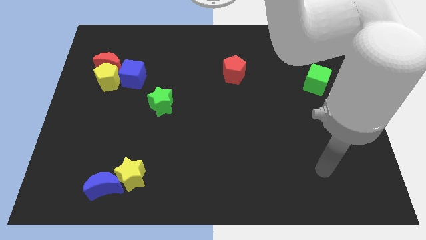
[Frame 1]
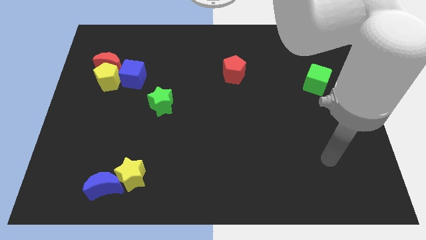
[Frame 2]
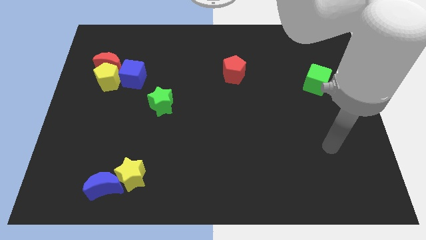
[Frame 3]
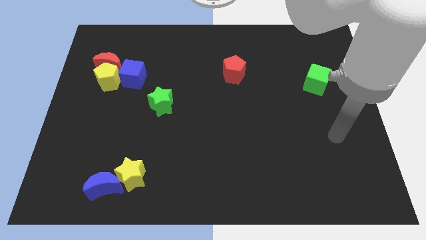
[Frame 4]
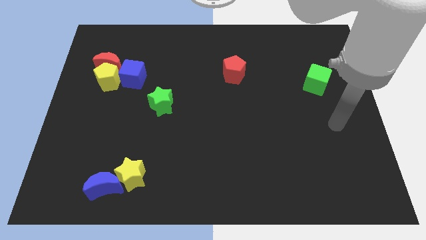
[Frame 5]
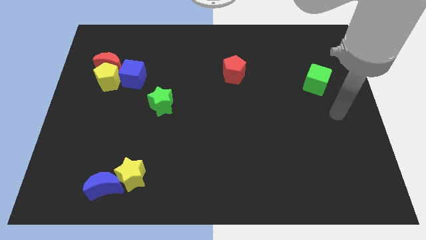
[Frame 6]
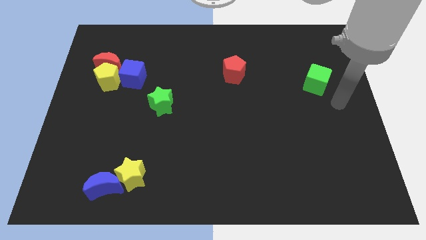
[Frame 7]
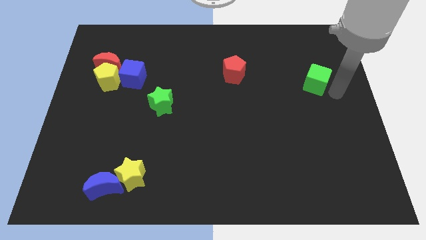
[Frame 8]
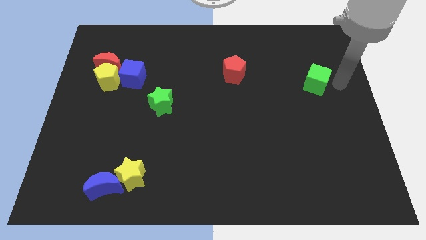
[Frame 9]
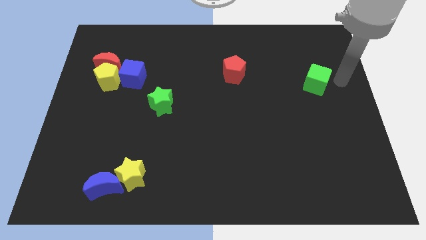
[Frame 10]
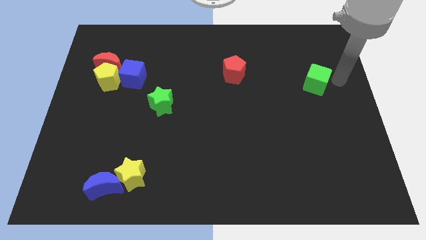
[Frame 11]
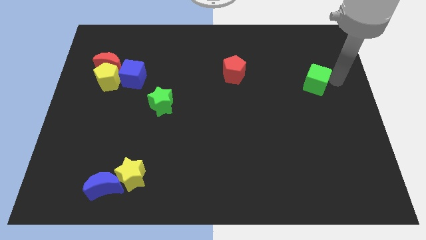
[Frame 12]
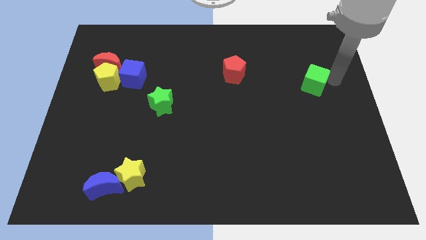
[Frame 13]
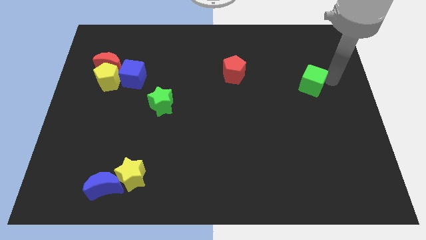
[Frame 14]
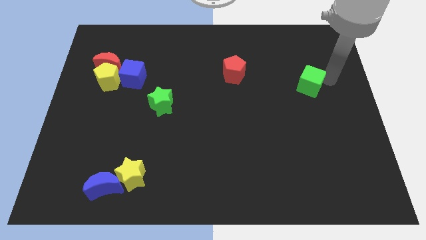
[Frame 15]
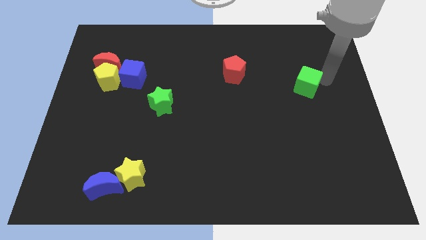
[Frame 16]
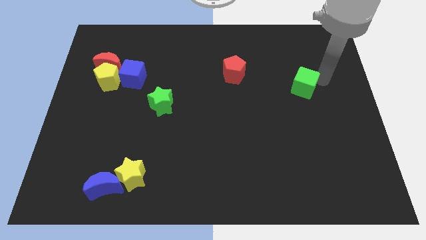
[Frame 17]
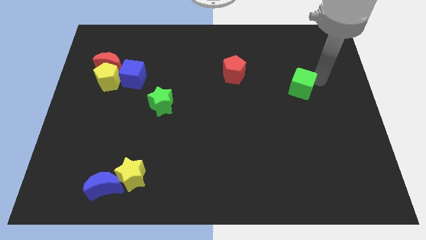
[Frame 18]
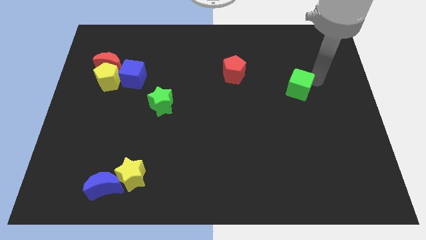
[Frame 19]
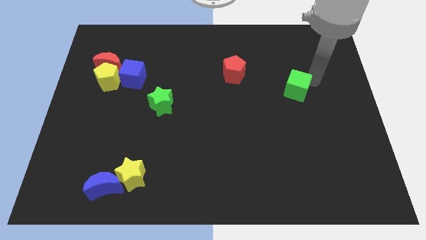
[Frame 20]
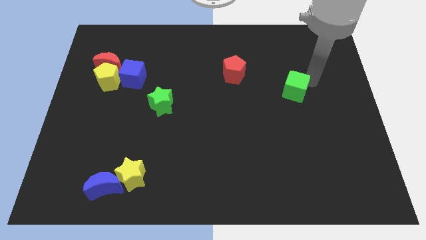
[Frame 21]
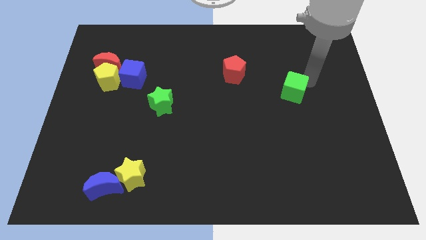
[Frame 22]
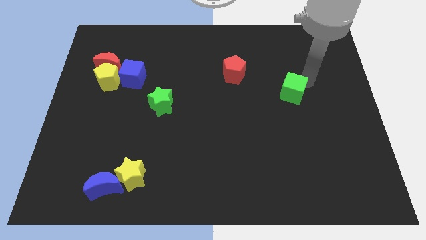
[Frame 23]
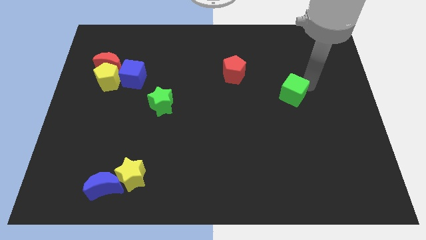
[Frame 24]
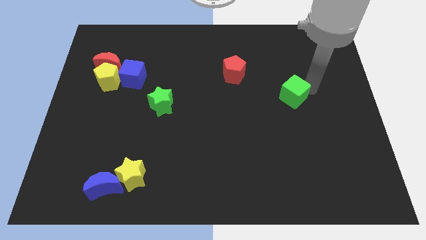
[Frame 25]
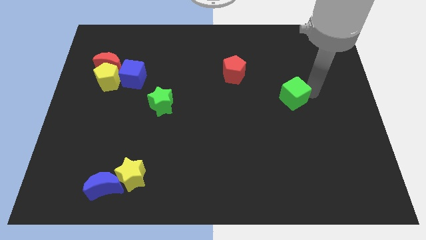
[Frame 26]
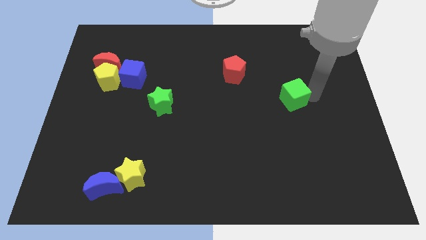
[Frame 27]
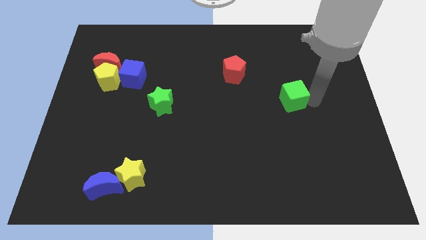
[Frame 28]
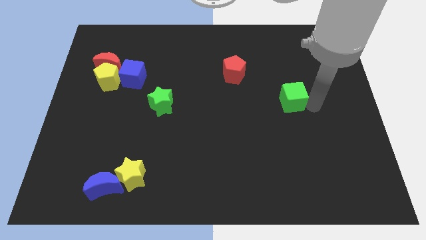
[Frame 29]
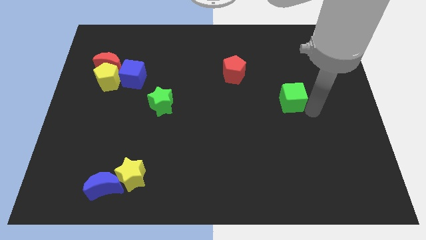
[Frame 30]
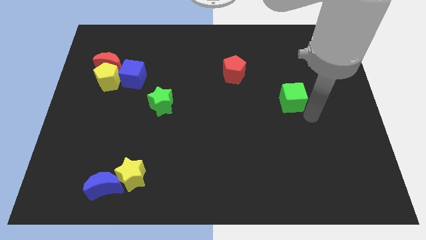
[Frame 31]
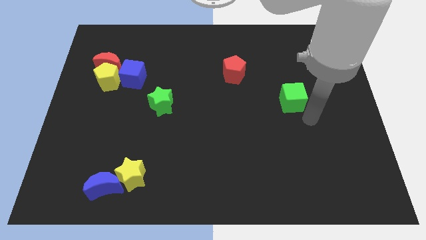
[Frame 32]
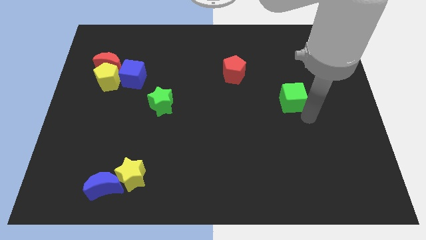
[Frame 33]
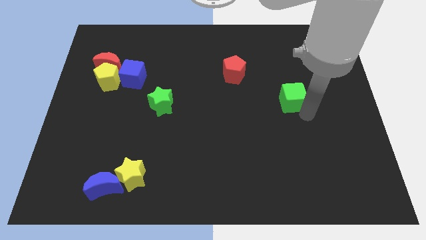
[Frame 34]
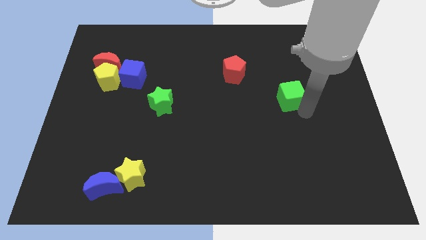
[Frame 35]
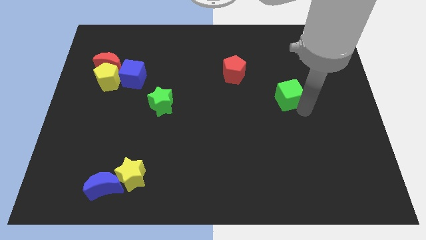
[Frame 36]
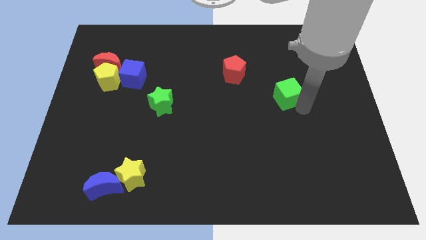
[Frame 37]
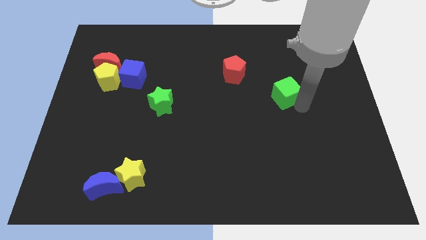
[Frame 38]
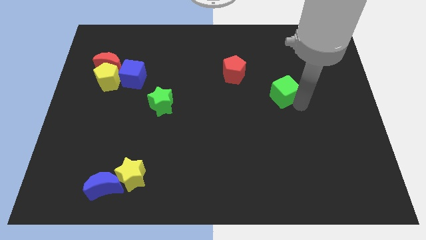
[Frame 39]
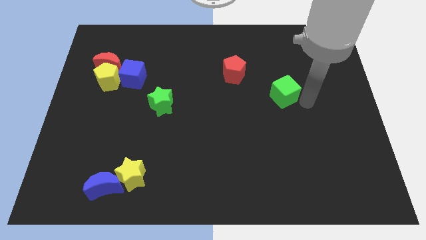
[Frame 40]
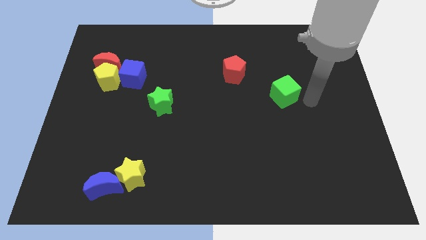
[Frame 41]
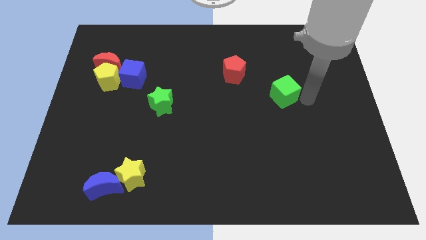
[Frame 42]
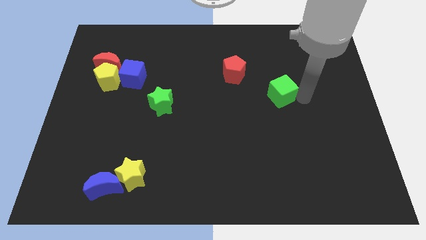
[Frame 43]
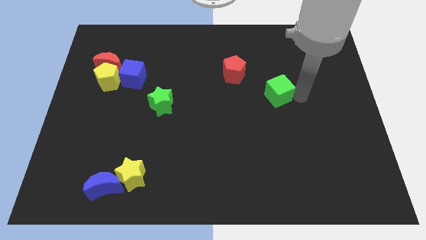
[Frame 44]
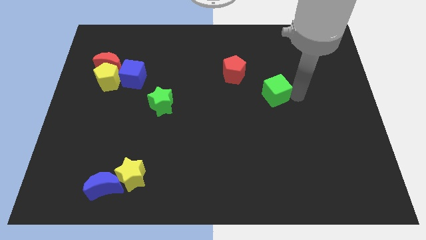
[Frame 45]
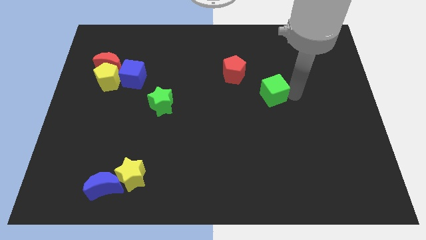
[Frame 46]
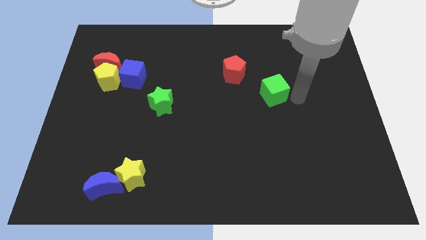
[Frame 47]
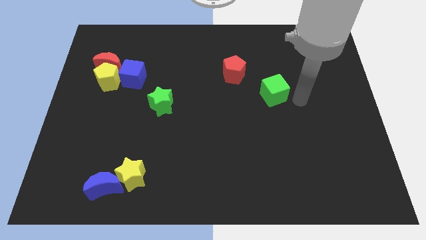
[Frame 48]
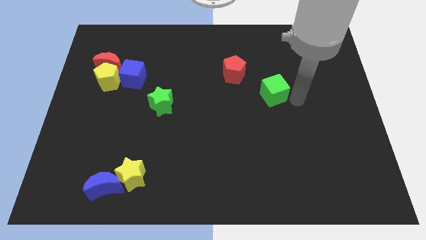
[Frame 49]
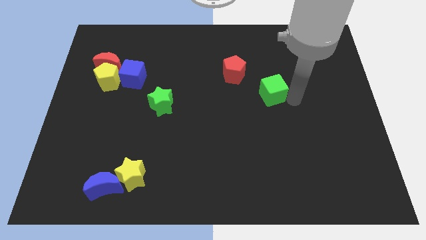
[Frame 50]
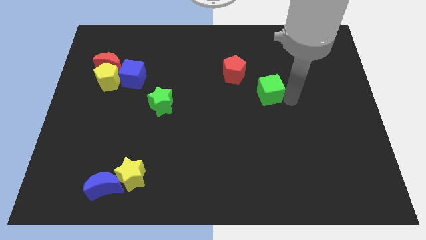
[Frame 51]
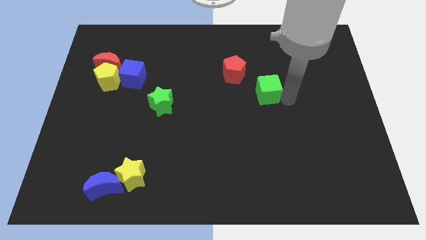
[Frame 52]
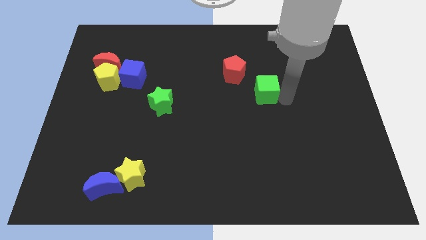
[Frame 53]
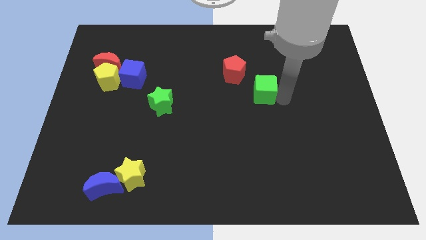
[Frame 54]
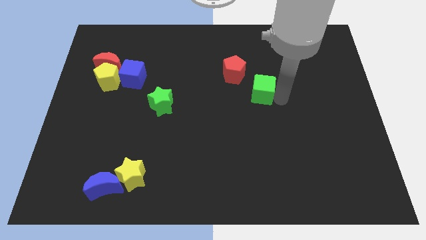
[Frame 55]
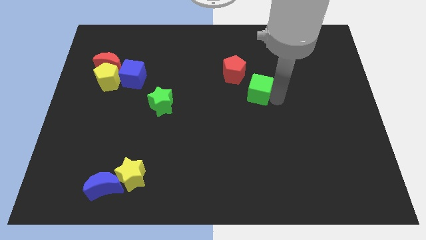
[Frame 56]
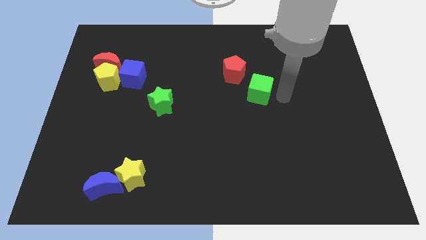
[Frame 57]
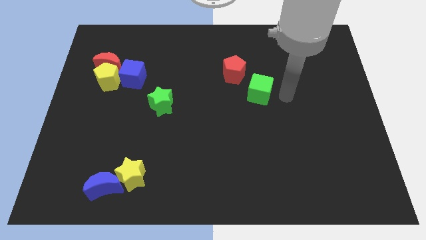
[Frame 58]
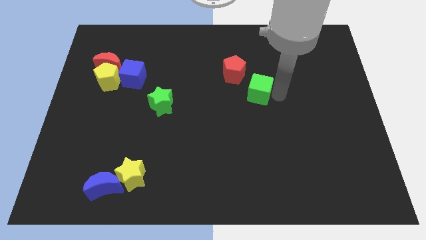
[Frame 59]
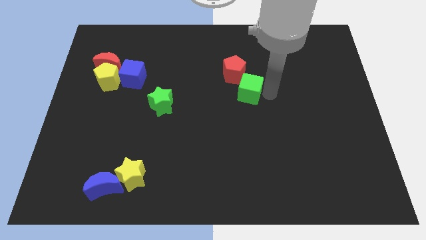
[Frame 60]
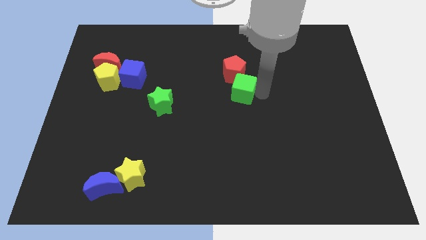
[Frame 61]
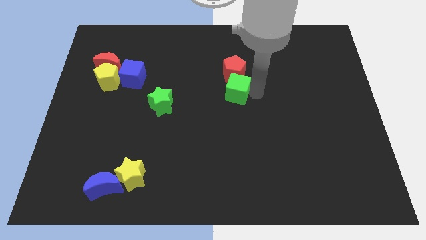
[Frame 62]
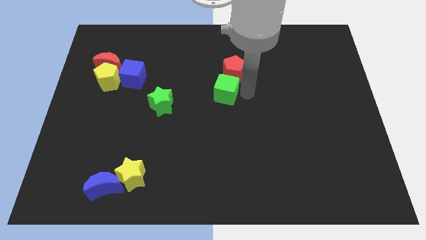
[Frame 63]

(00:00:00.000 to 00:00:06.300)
push the green cube left

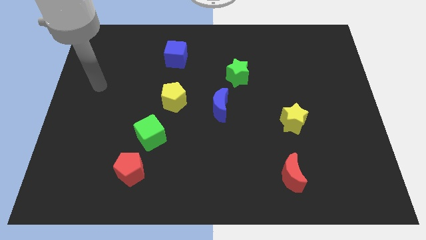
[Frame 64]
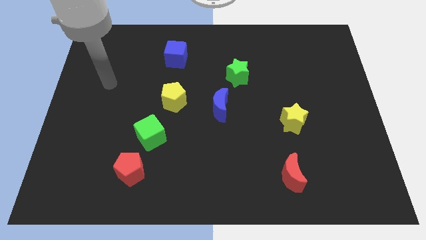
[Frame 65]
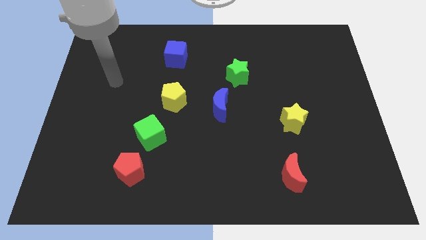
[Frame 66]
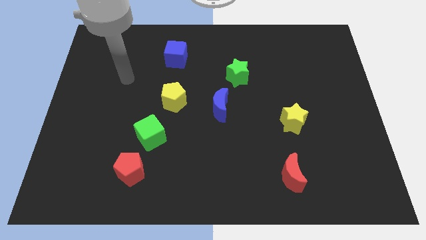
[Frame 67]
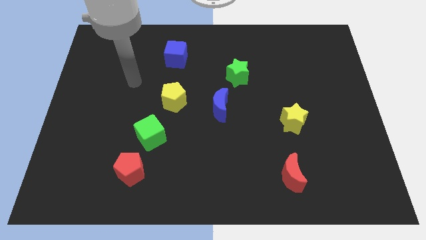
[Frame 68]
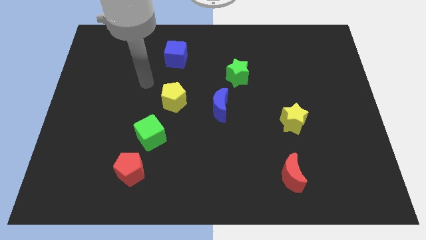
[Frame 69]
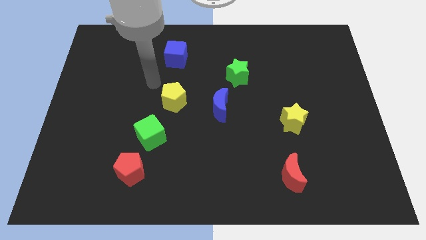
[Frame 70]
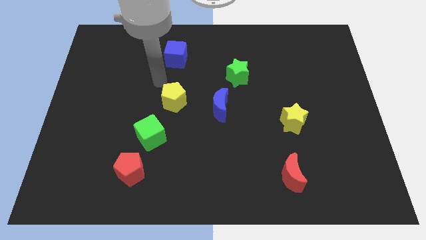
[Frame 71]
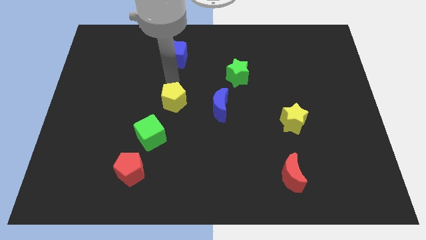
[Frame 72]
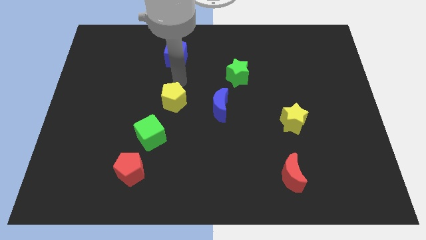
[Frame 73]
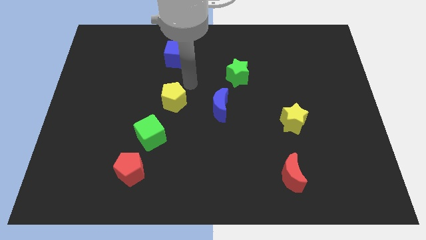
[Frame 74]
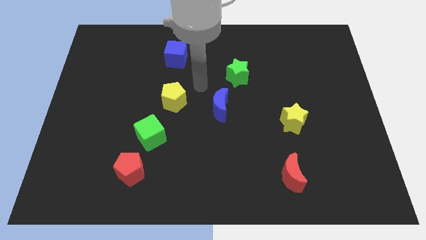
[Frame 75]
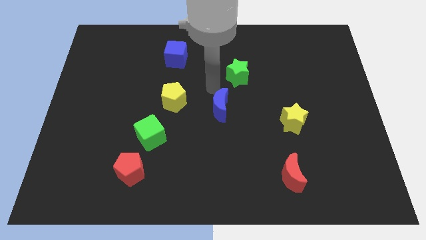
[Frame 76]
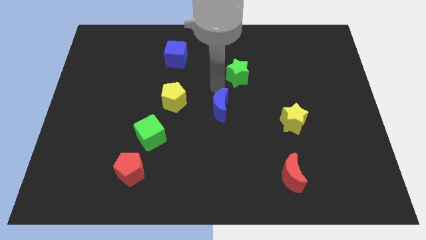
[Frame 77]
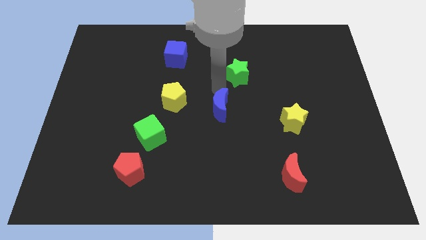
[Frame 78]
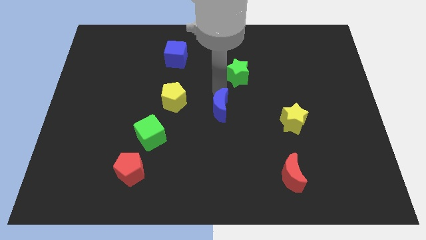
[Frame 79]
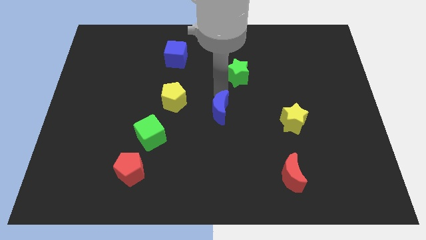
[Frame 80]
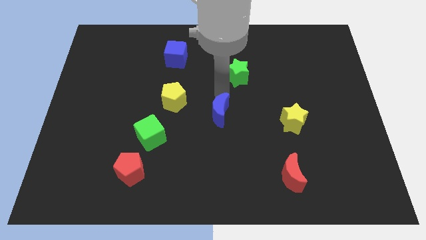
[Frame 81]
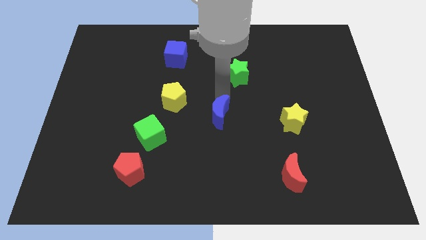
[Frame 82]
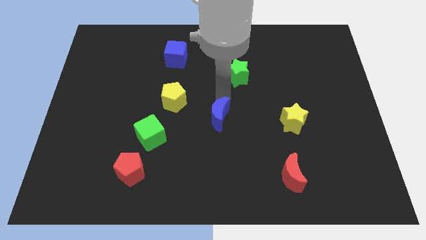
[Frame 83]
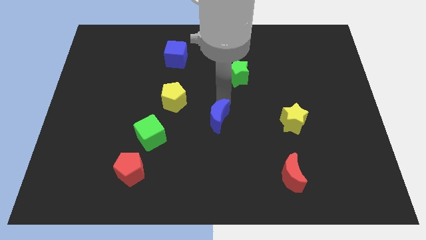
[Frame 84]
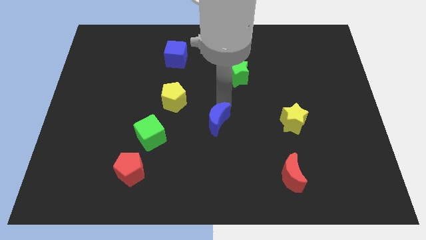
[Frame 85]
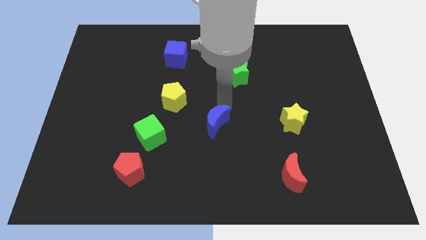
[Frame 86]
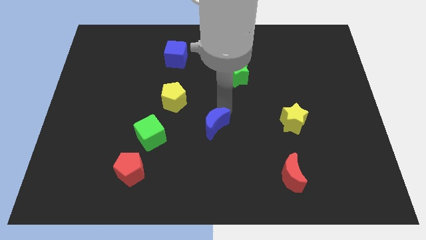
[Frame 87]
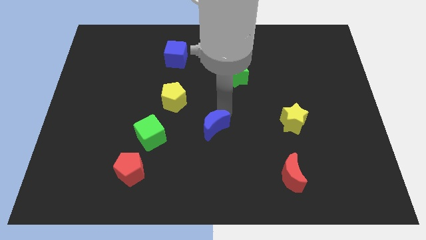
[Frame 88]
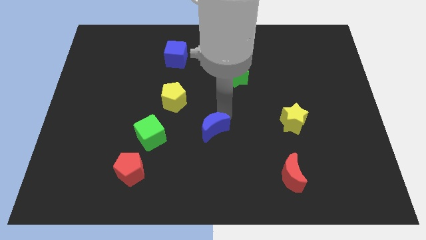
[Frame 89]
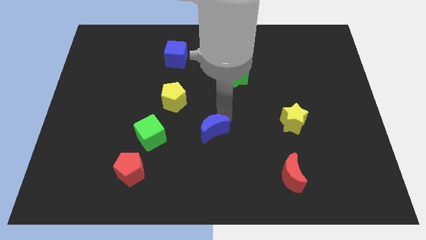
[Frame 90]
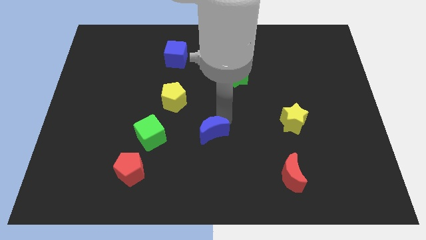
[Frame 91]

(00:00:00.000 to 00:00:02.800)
slightly push the blue moon downwards
